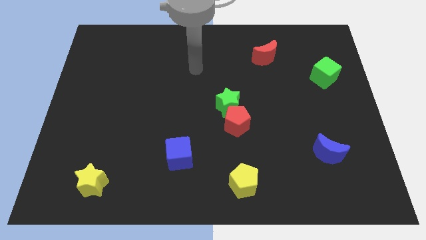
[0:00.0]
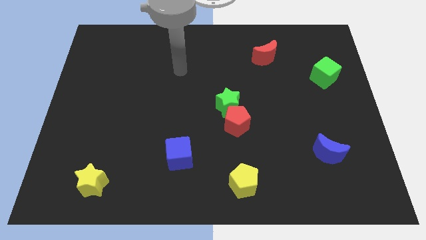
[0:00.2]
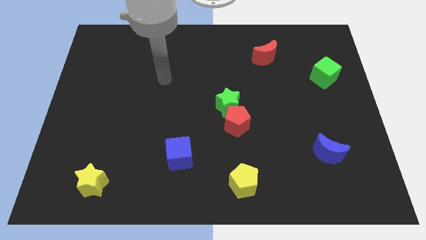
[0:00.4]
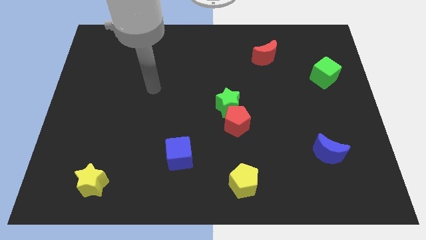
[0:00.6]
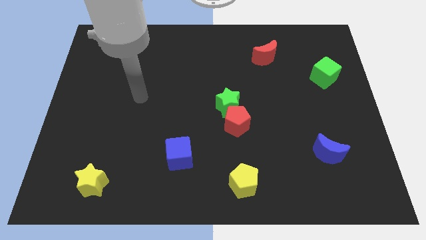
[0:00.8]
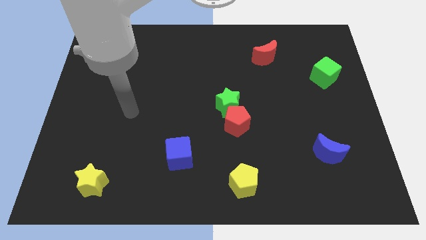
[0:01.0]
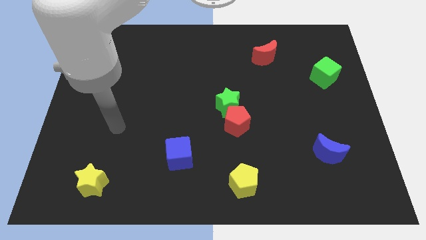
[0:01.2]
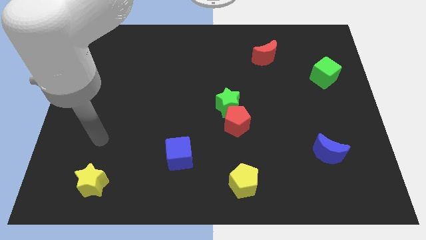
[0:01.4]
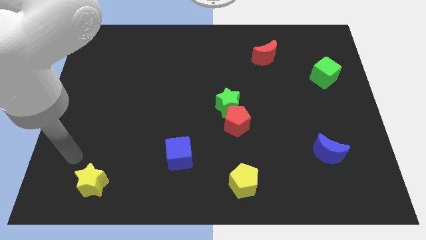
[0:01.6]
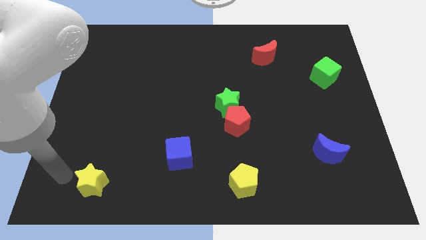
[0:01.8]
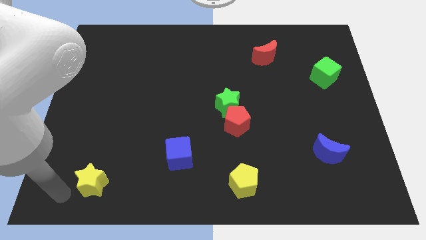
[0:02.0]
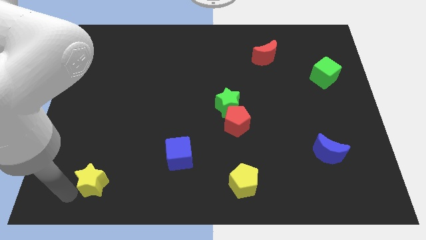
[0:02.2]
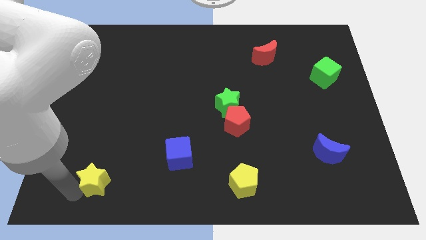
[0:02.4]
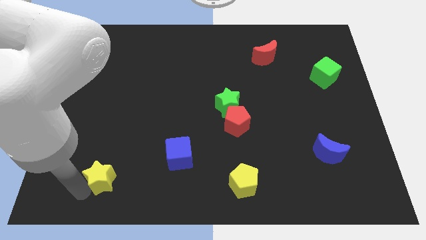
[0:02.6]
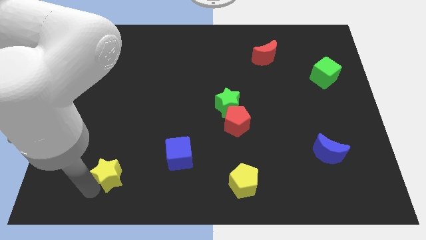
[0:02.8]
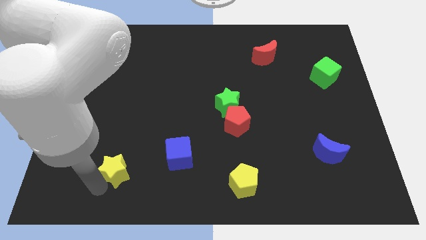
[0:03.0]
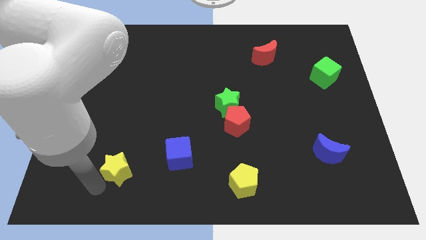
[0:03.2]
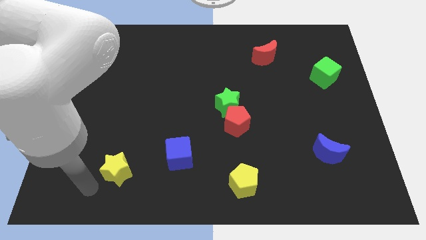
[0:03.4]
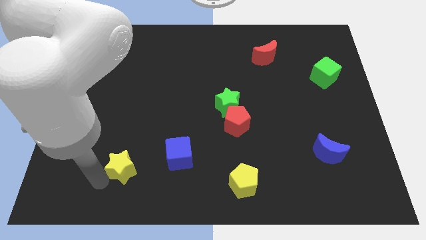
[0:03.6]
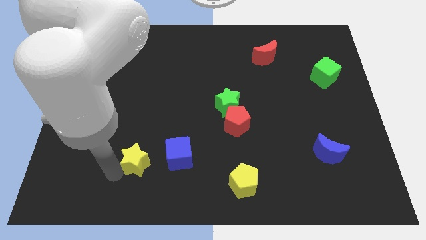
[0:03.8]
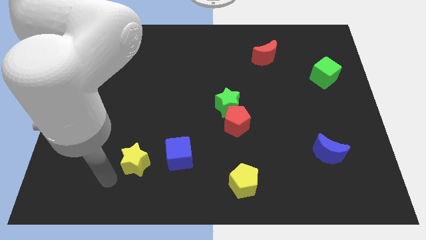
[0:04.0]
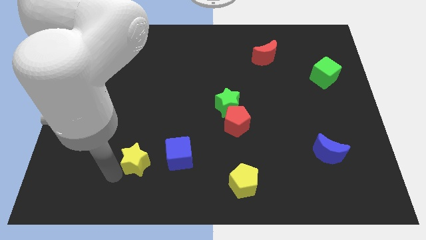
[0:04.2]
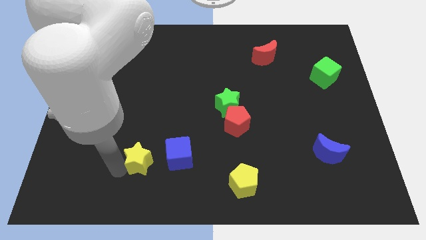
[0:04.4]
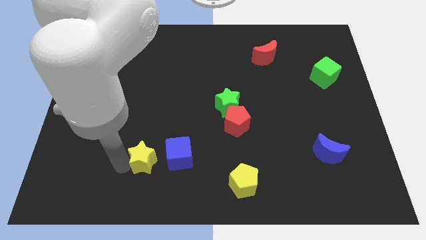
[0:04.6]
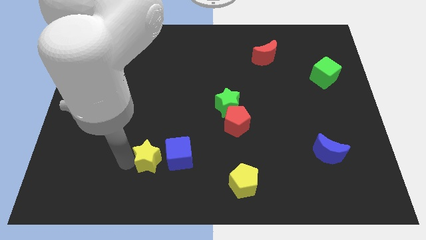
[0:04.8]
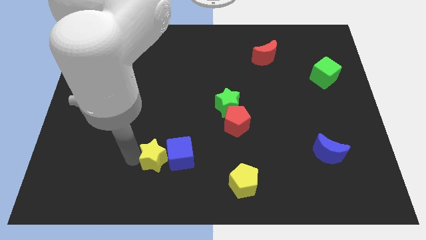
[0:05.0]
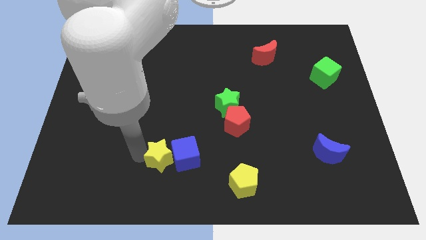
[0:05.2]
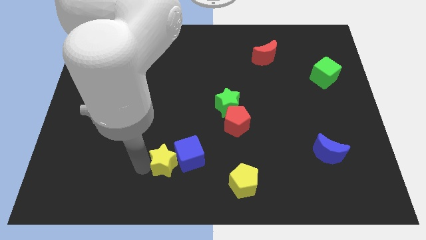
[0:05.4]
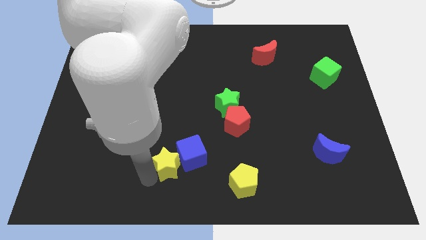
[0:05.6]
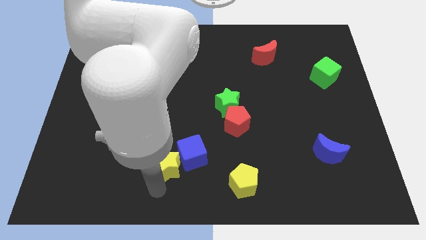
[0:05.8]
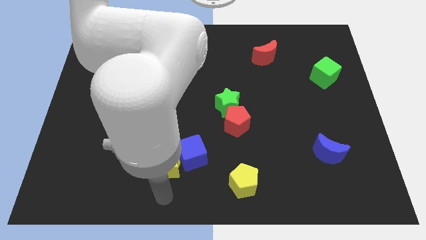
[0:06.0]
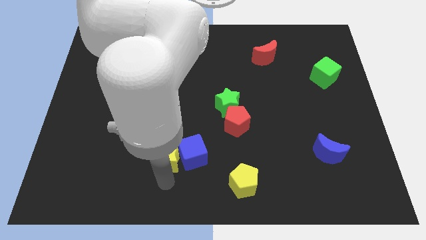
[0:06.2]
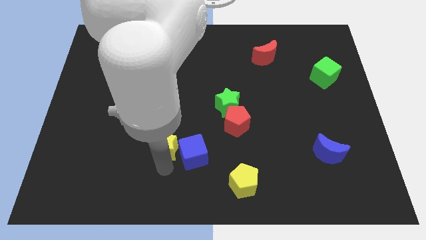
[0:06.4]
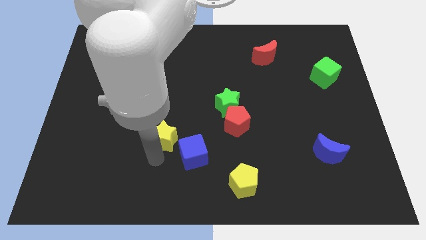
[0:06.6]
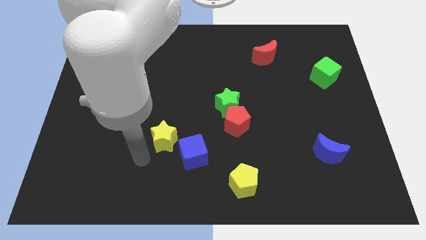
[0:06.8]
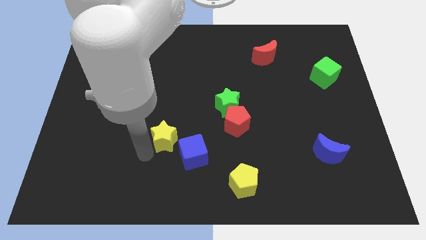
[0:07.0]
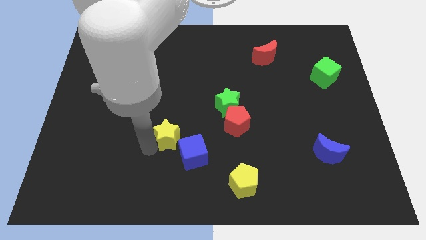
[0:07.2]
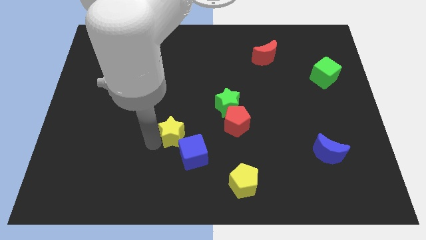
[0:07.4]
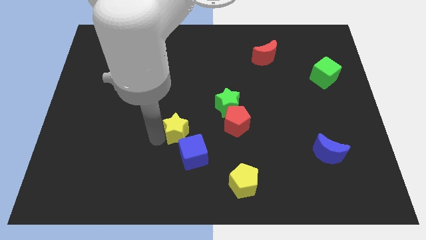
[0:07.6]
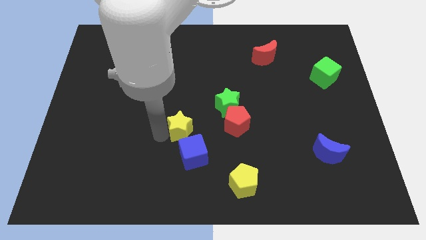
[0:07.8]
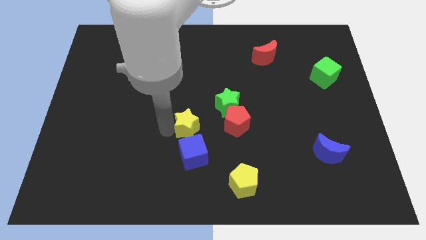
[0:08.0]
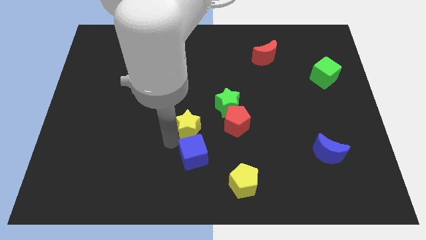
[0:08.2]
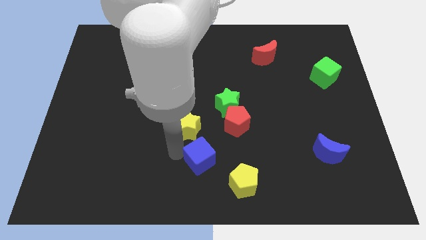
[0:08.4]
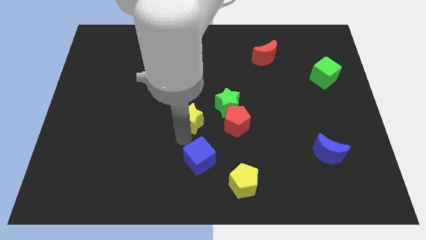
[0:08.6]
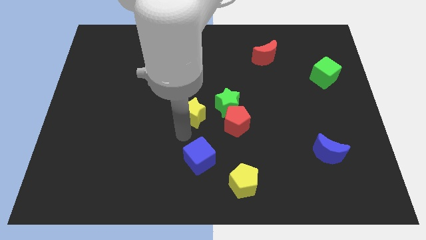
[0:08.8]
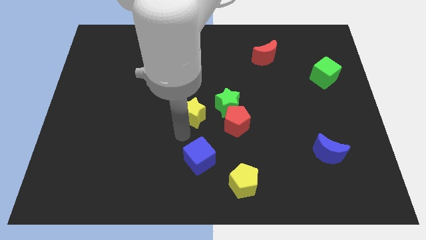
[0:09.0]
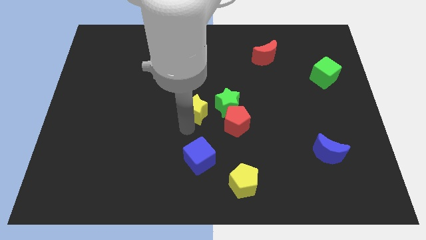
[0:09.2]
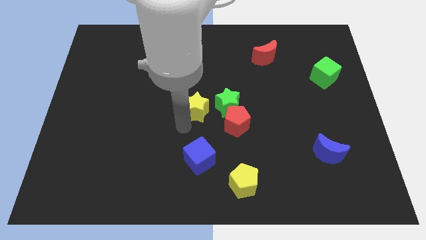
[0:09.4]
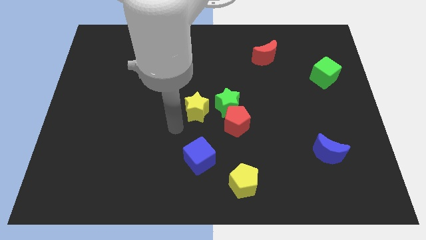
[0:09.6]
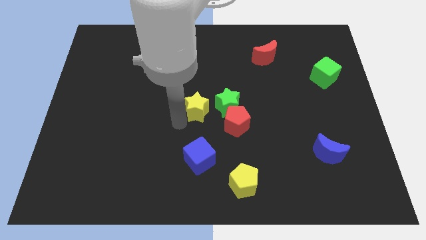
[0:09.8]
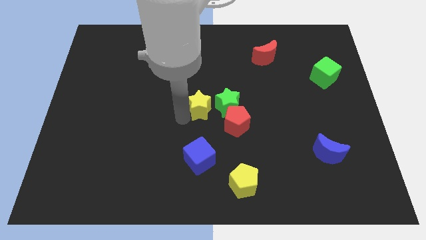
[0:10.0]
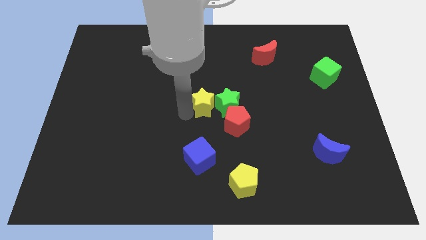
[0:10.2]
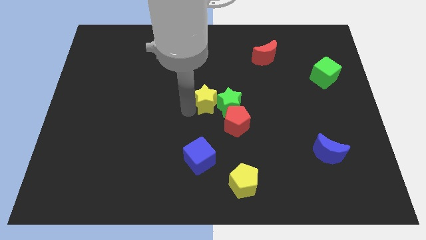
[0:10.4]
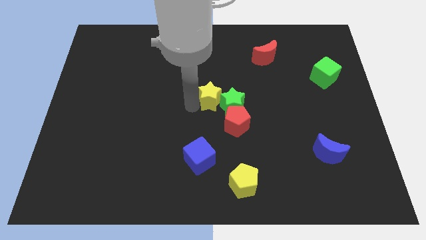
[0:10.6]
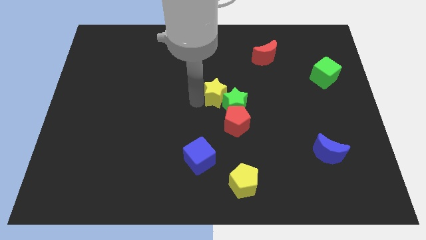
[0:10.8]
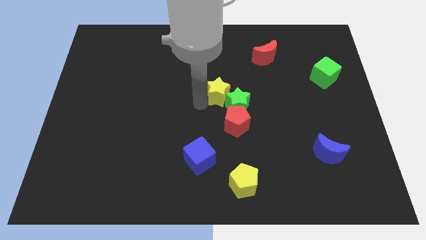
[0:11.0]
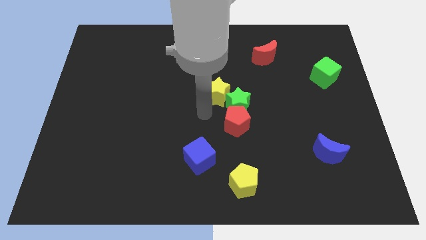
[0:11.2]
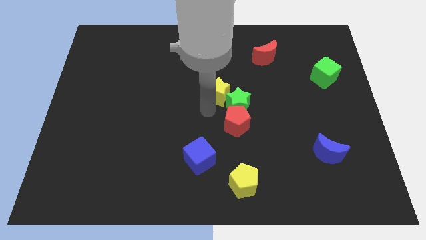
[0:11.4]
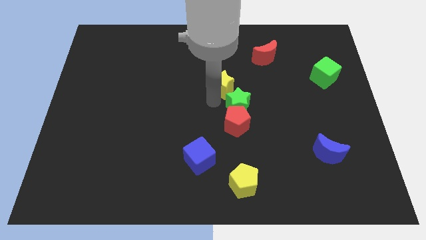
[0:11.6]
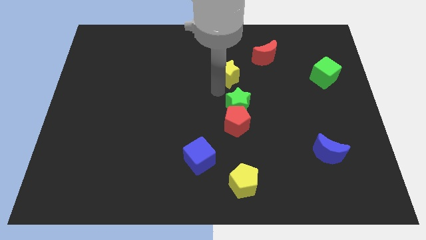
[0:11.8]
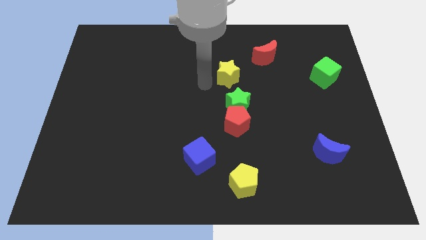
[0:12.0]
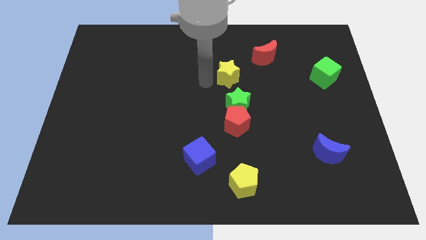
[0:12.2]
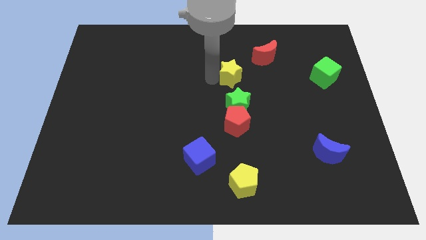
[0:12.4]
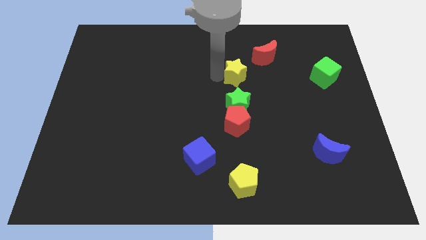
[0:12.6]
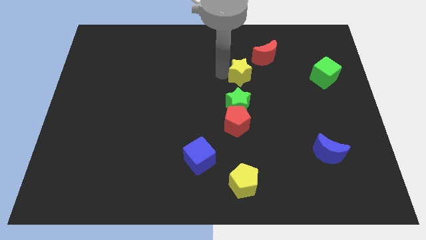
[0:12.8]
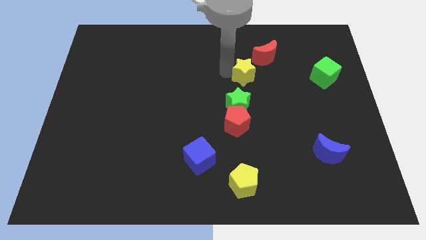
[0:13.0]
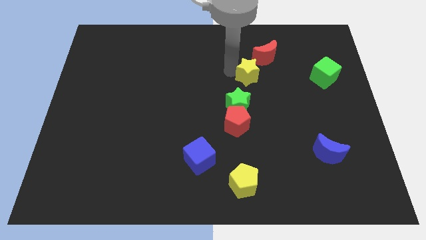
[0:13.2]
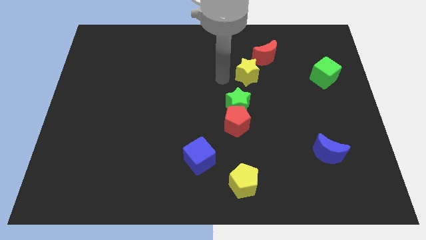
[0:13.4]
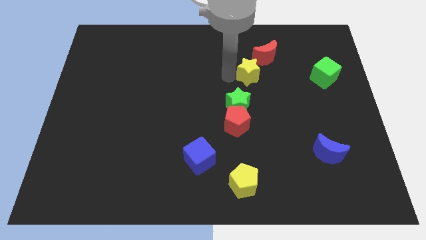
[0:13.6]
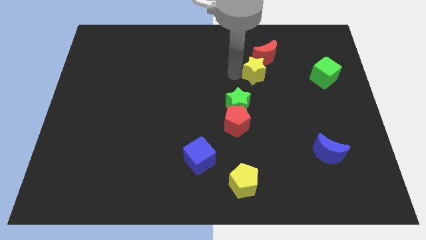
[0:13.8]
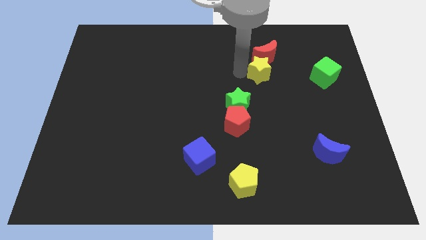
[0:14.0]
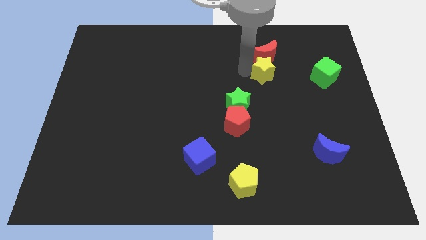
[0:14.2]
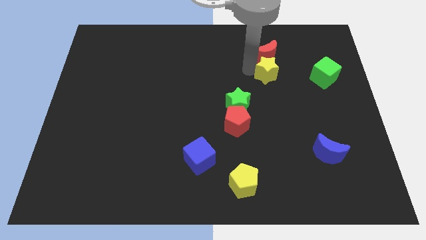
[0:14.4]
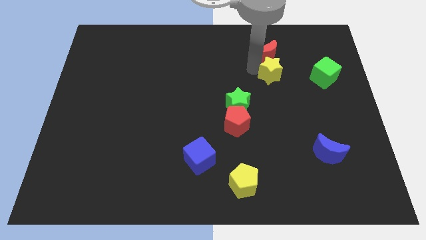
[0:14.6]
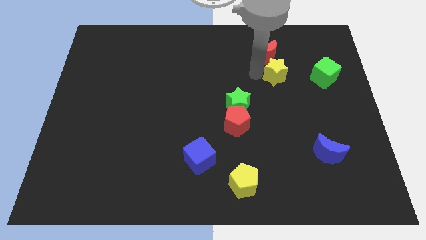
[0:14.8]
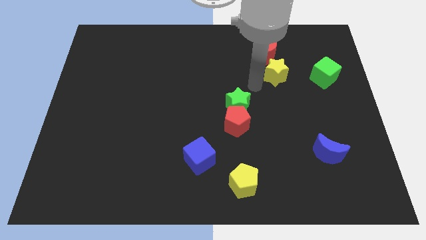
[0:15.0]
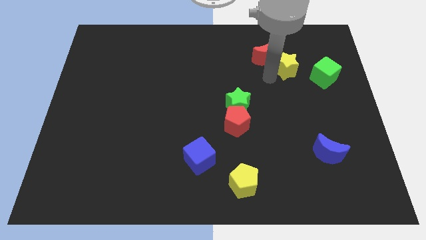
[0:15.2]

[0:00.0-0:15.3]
slide the yellow star to the right of the red moon
